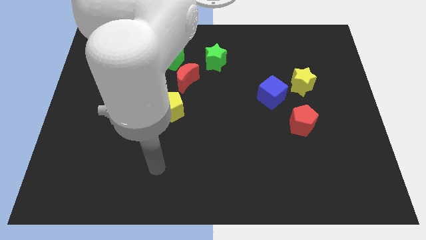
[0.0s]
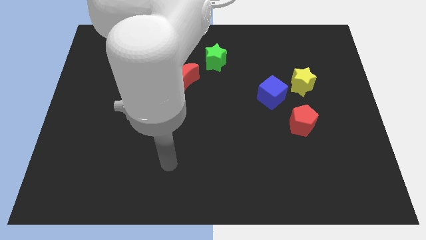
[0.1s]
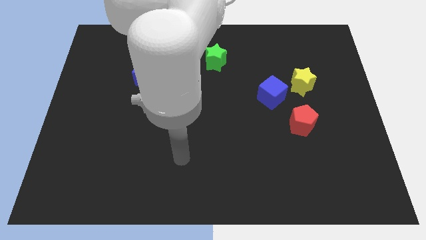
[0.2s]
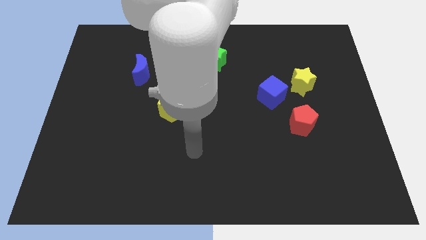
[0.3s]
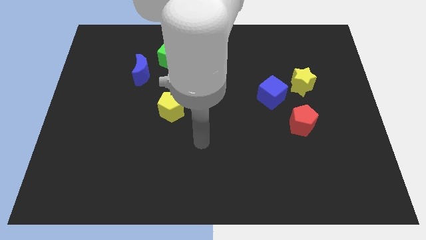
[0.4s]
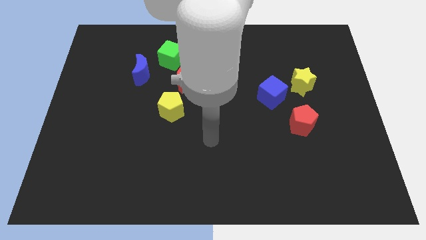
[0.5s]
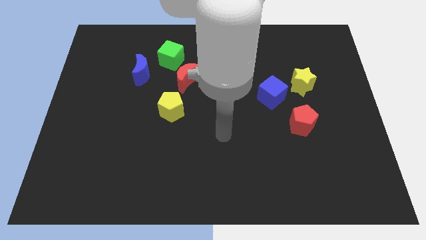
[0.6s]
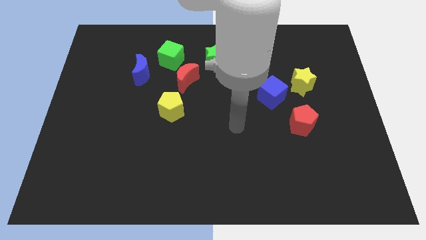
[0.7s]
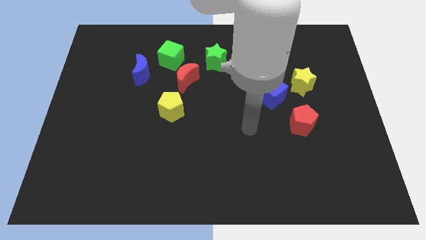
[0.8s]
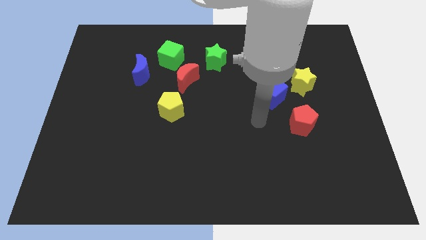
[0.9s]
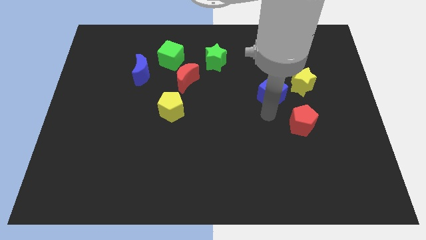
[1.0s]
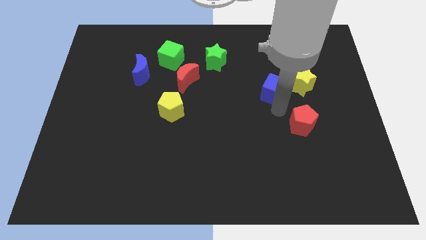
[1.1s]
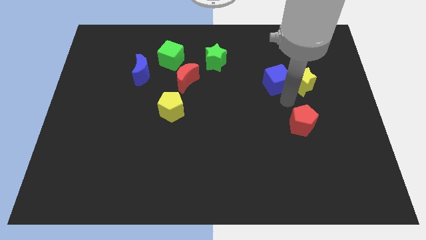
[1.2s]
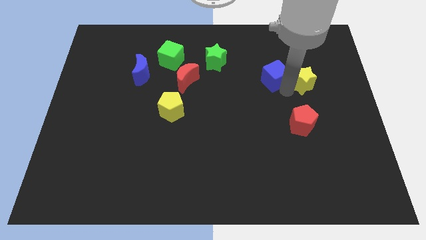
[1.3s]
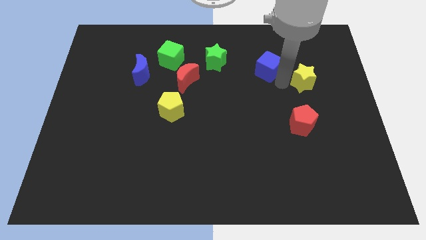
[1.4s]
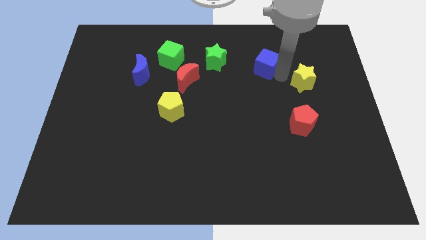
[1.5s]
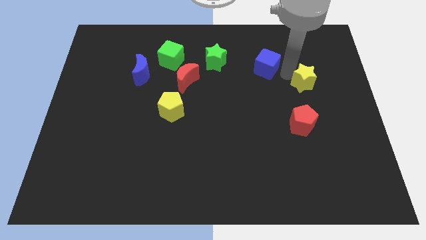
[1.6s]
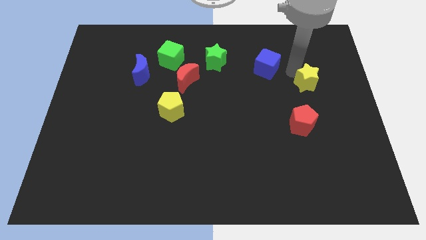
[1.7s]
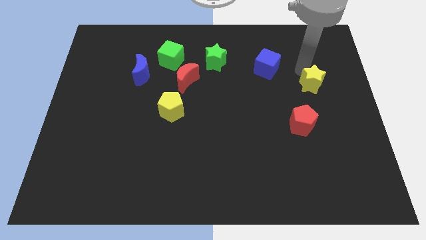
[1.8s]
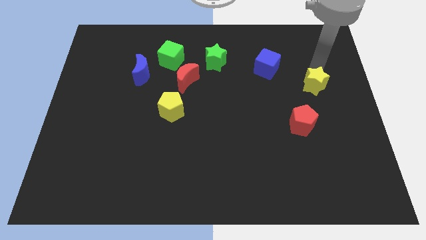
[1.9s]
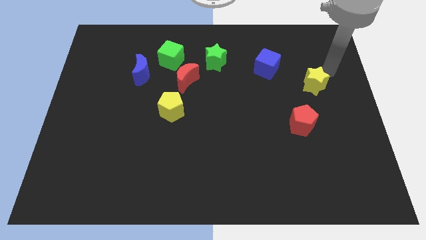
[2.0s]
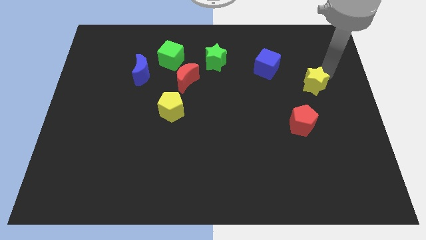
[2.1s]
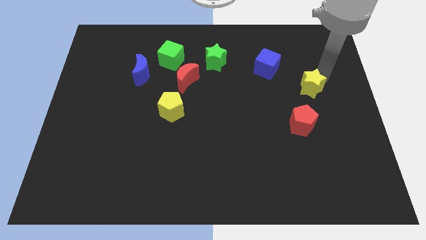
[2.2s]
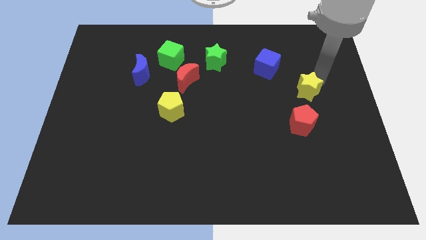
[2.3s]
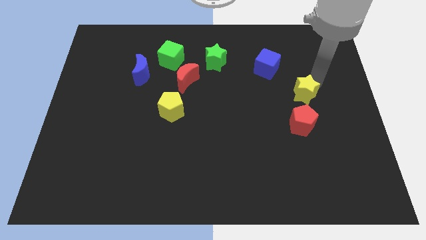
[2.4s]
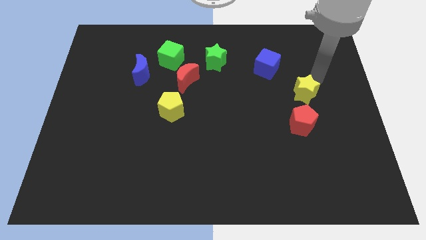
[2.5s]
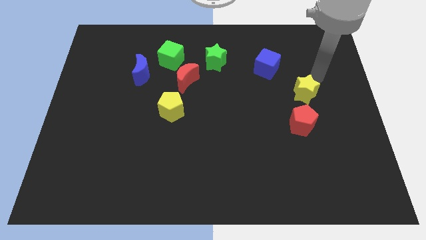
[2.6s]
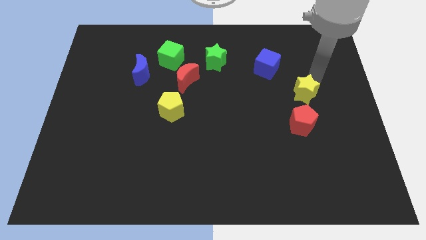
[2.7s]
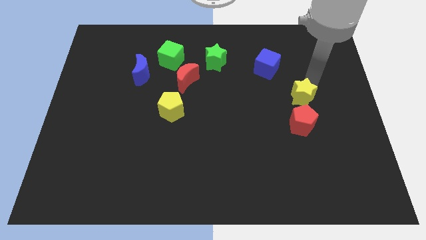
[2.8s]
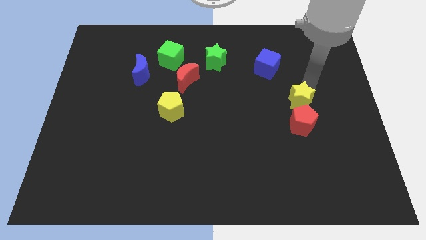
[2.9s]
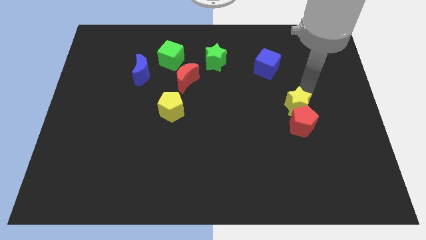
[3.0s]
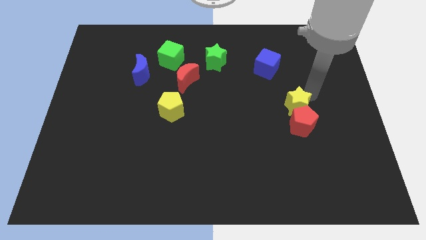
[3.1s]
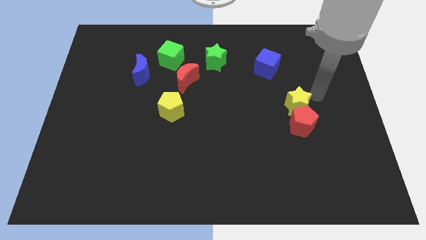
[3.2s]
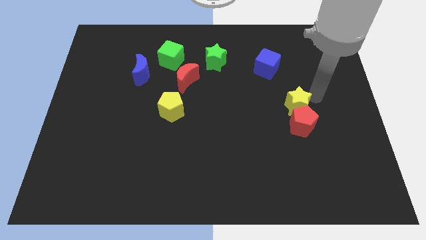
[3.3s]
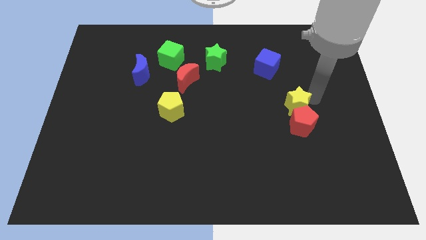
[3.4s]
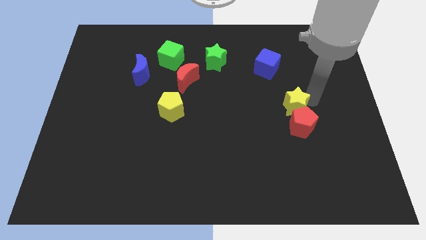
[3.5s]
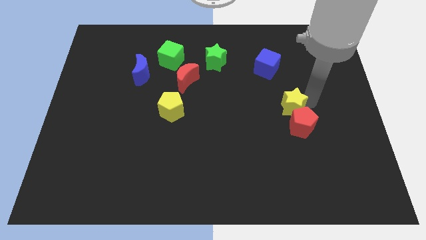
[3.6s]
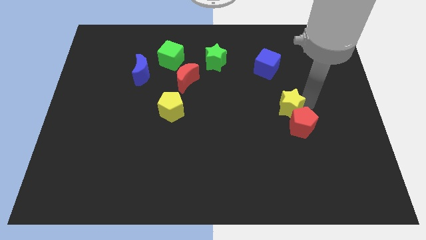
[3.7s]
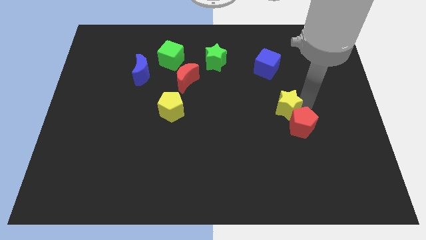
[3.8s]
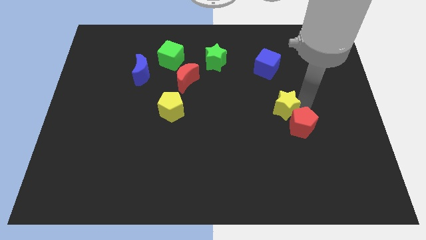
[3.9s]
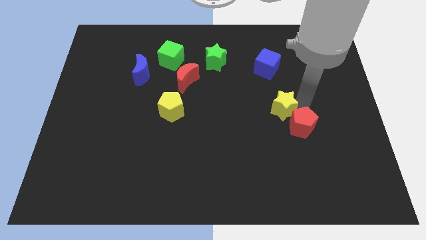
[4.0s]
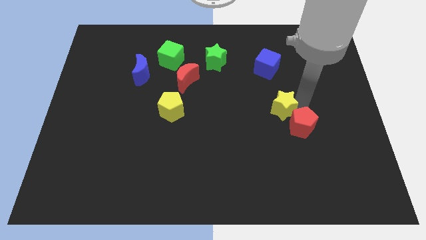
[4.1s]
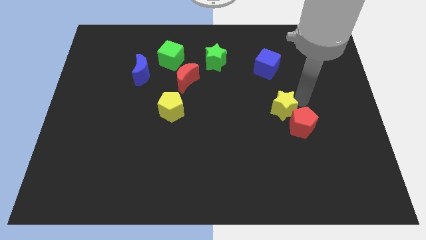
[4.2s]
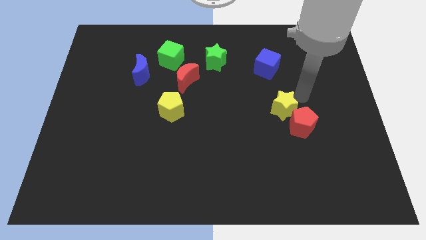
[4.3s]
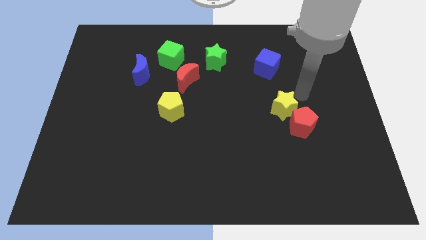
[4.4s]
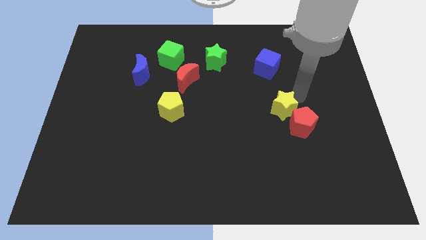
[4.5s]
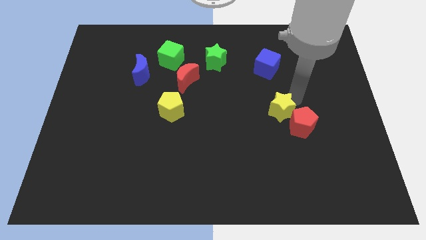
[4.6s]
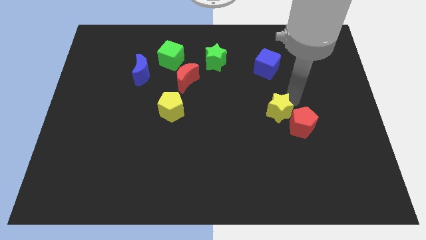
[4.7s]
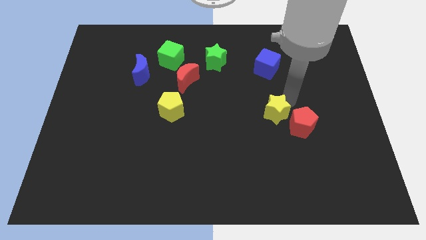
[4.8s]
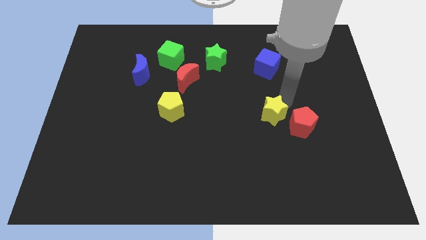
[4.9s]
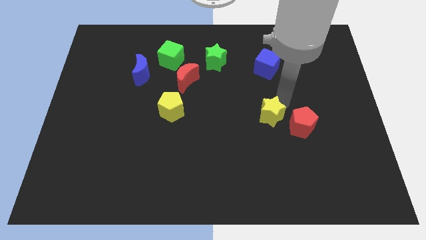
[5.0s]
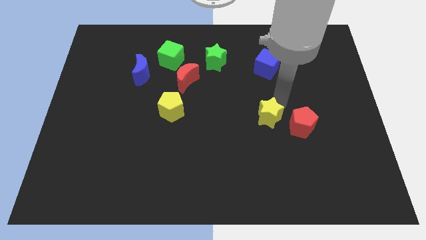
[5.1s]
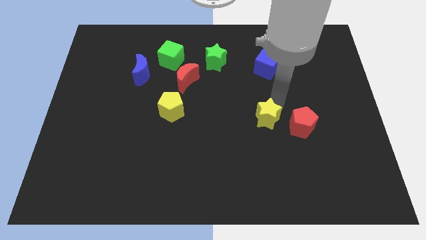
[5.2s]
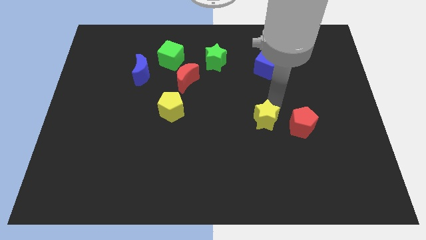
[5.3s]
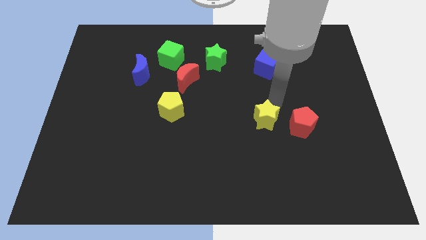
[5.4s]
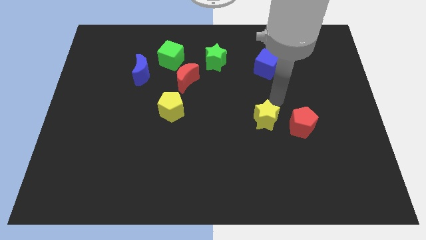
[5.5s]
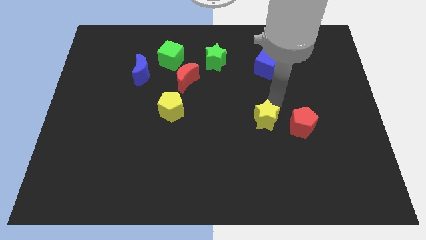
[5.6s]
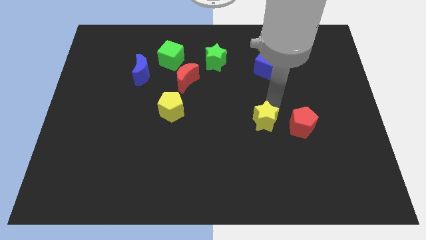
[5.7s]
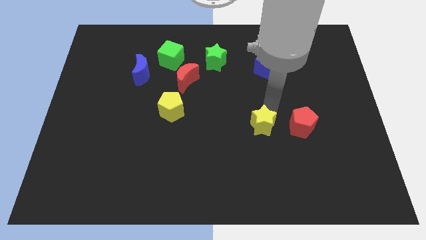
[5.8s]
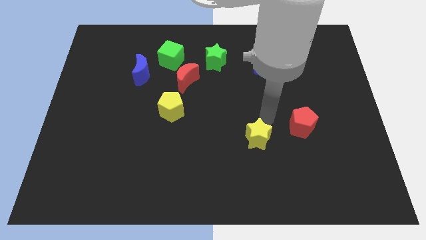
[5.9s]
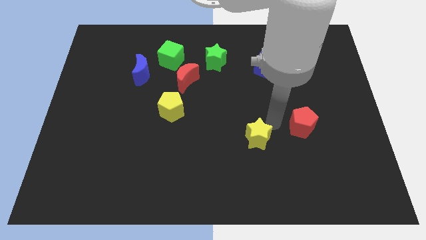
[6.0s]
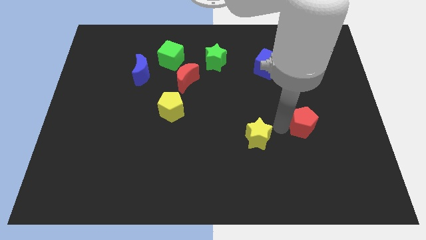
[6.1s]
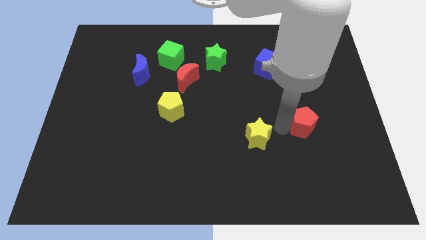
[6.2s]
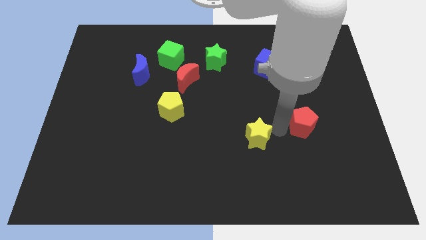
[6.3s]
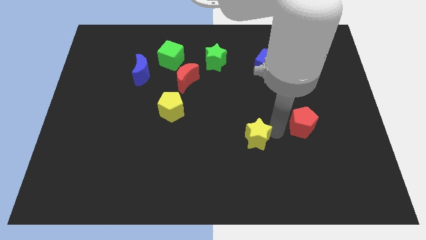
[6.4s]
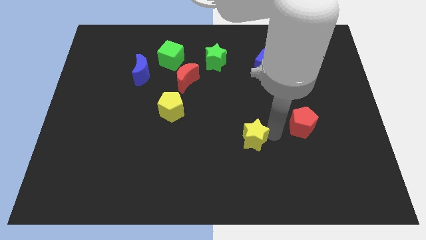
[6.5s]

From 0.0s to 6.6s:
push the yellow star down and left diagonally

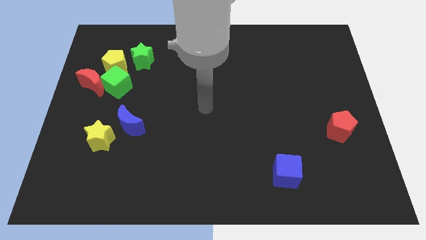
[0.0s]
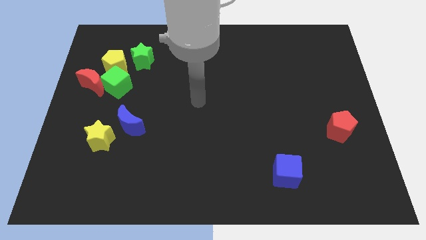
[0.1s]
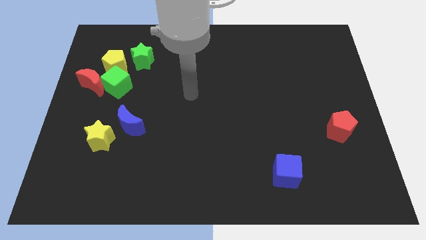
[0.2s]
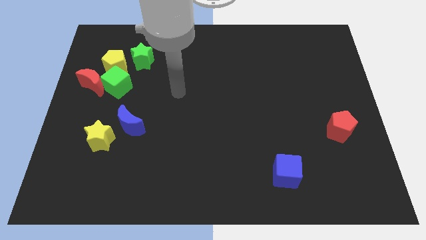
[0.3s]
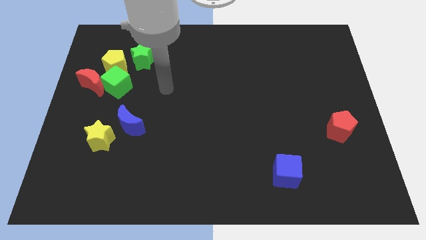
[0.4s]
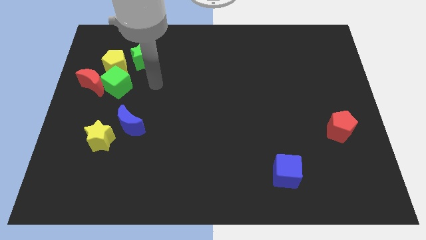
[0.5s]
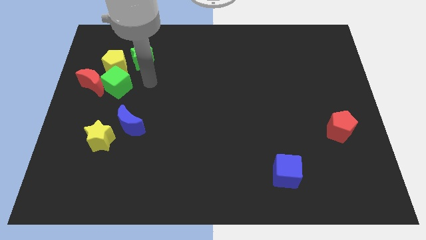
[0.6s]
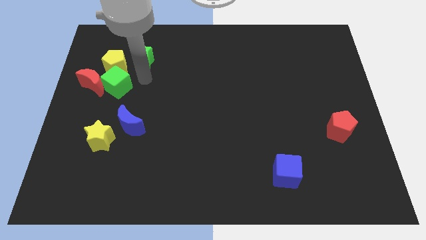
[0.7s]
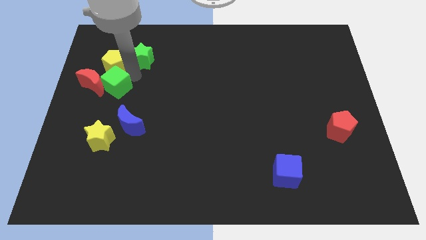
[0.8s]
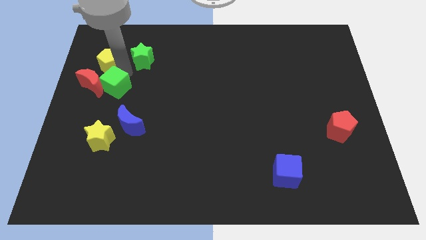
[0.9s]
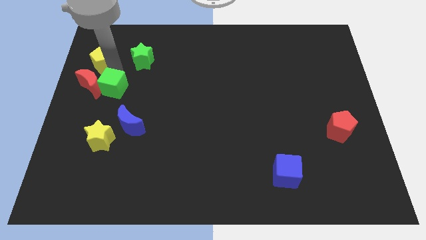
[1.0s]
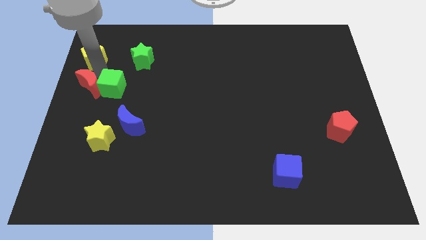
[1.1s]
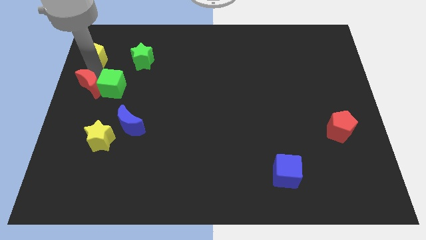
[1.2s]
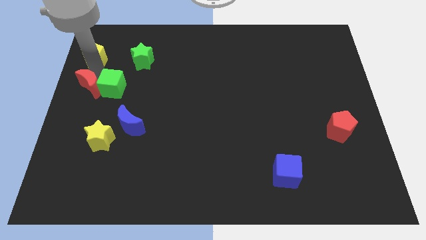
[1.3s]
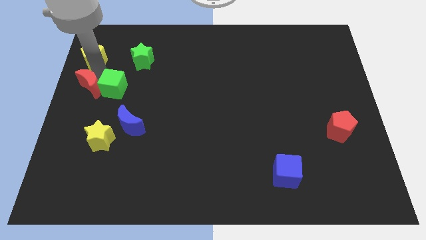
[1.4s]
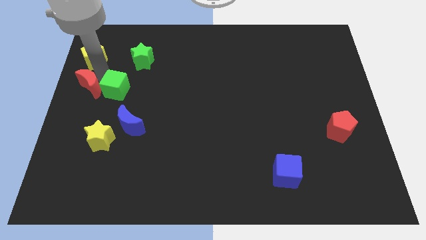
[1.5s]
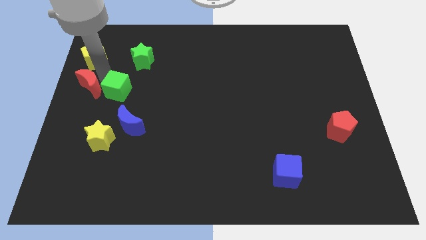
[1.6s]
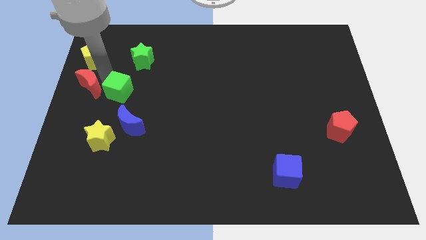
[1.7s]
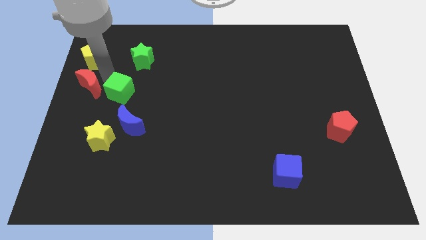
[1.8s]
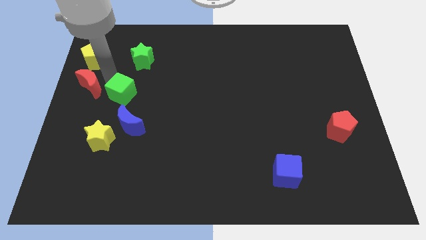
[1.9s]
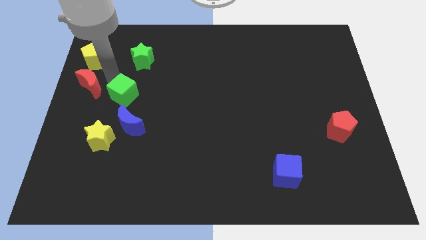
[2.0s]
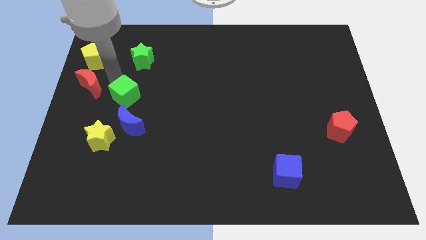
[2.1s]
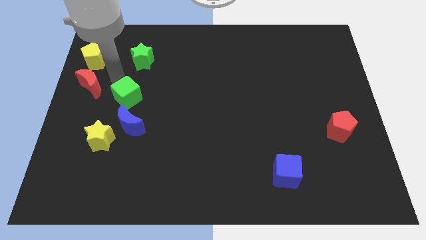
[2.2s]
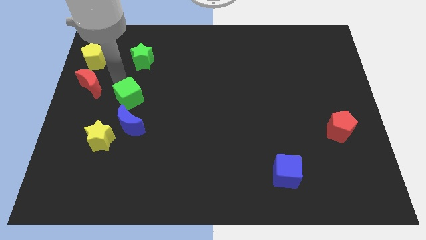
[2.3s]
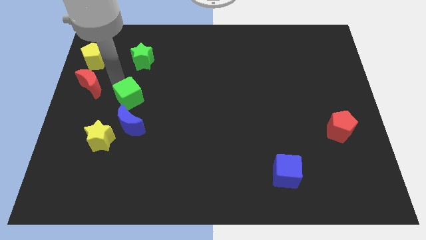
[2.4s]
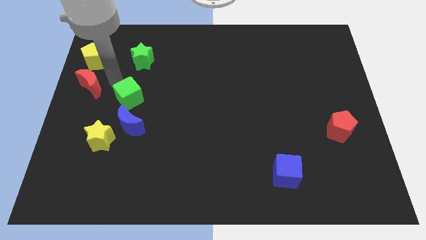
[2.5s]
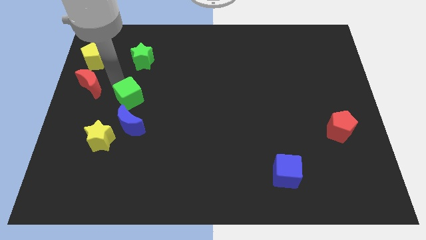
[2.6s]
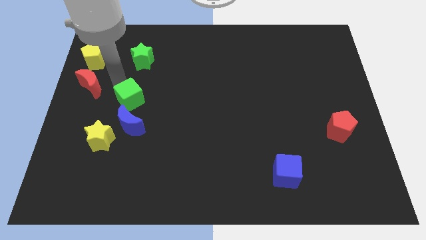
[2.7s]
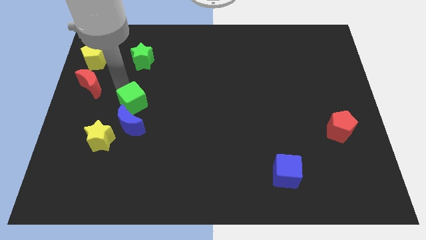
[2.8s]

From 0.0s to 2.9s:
slightly push the green cube diagonally down and right
